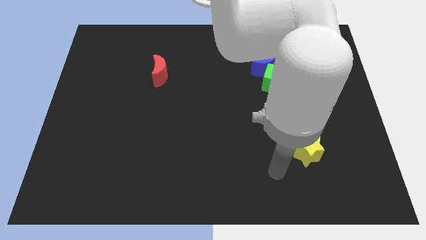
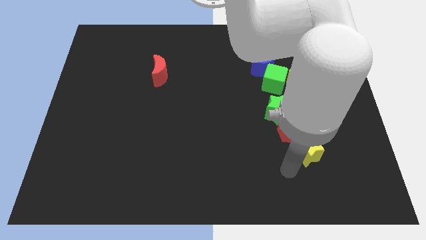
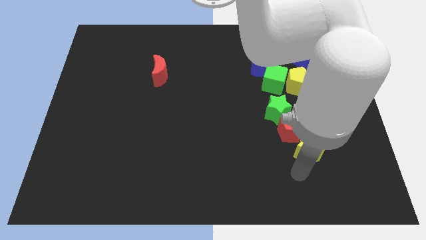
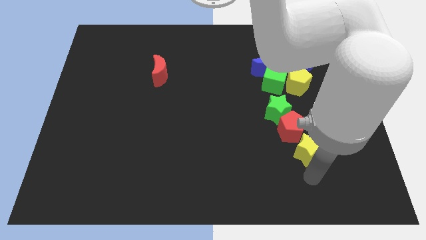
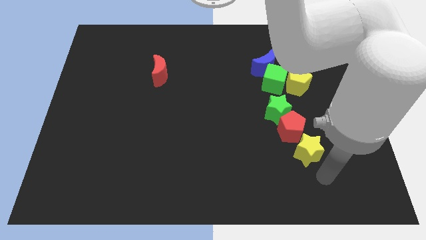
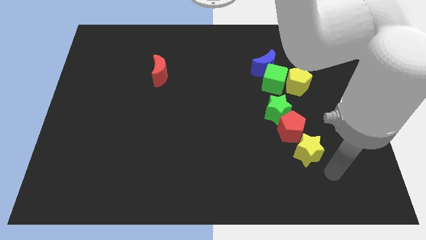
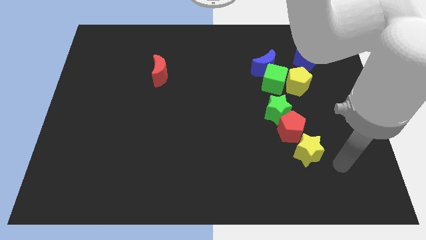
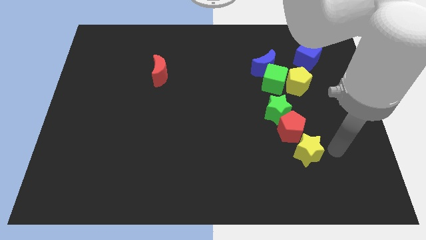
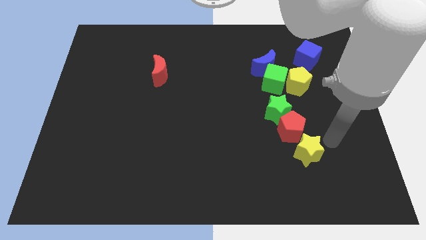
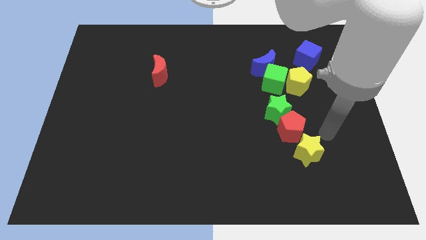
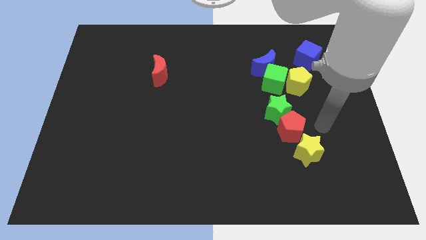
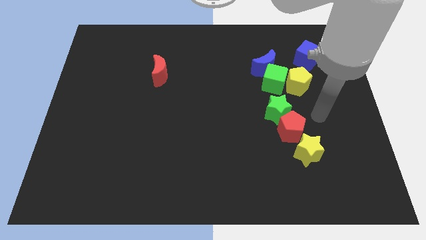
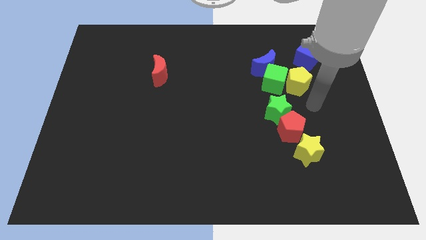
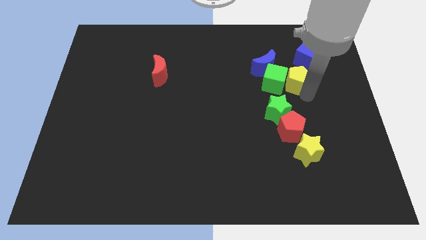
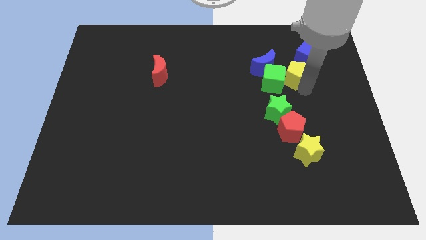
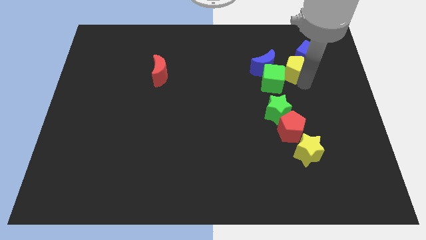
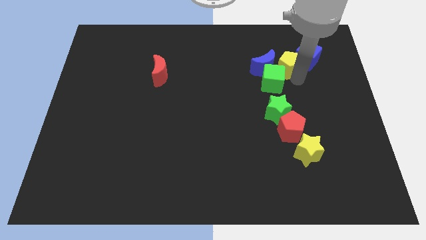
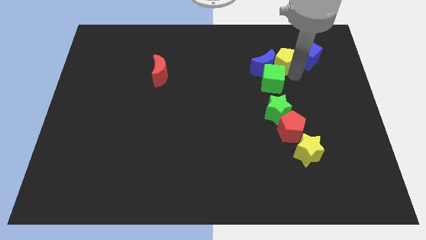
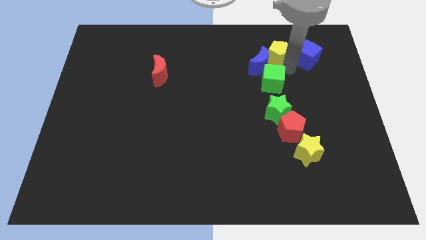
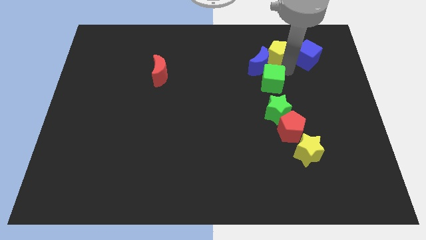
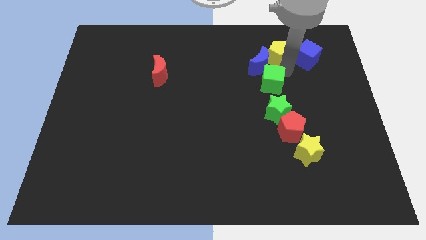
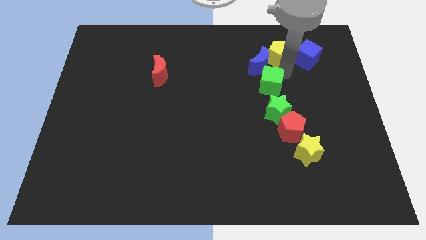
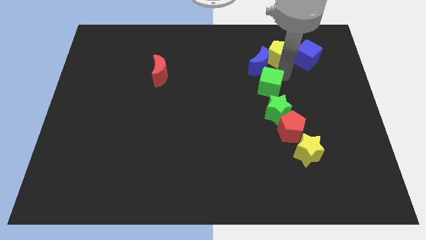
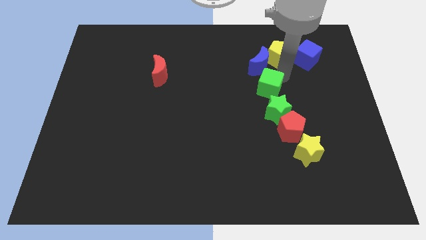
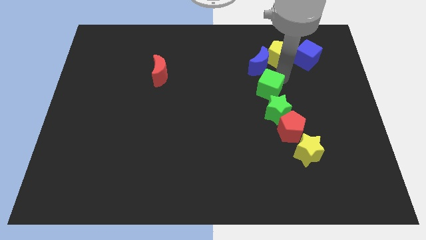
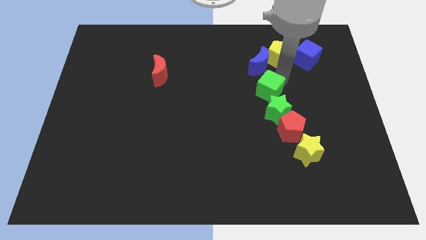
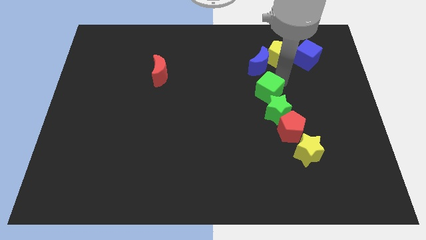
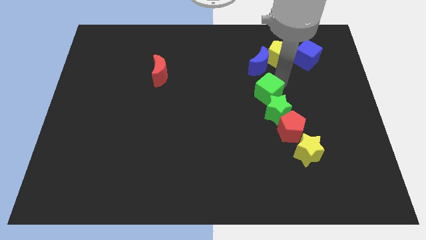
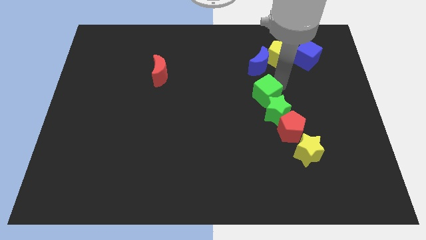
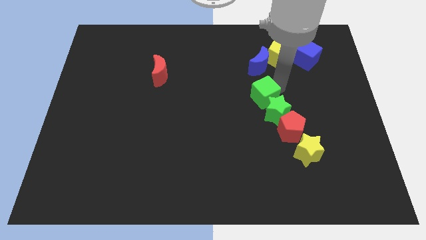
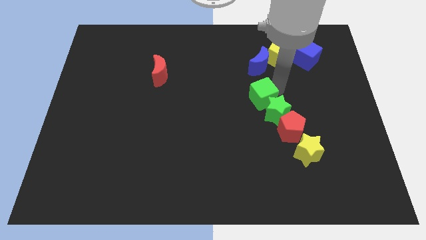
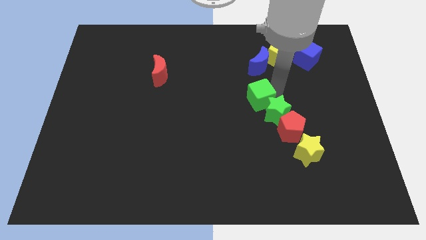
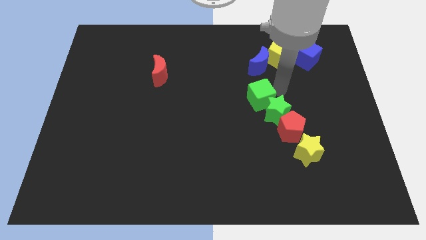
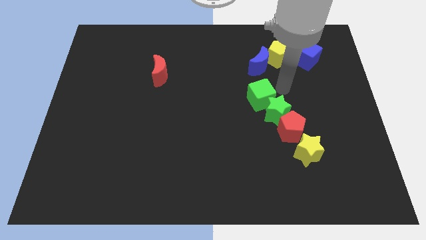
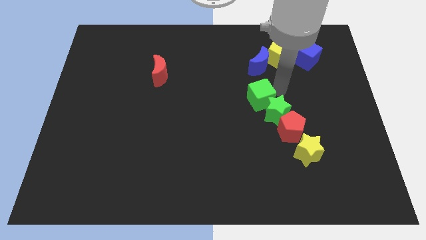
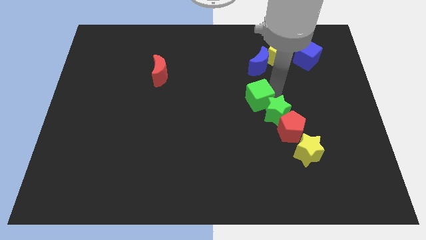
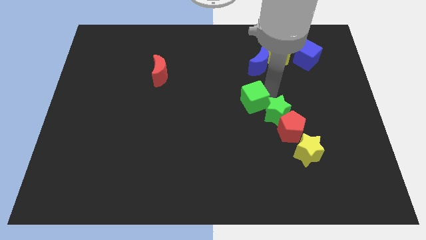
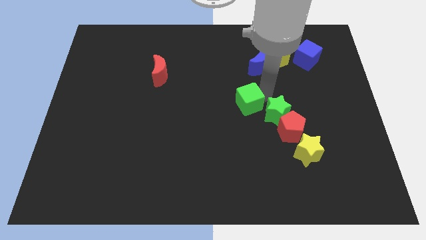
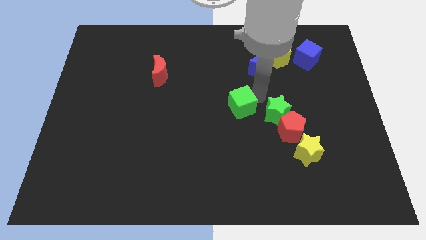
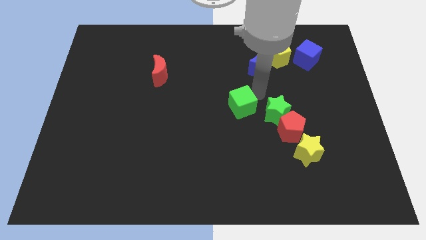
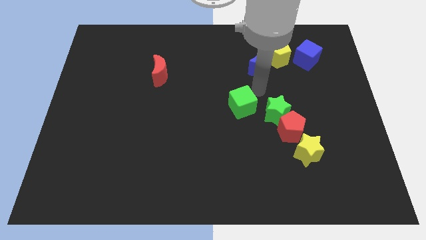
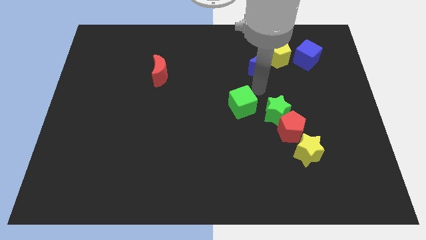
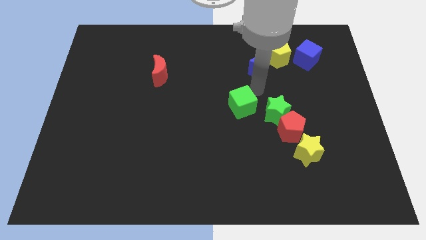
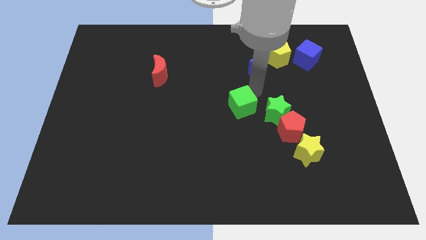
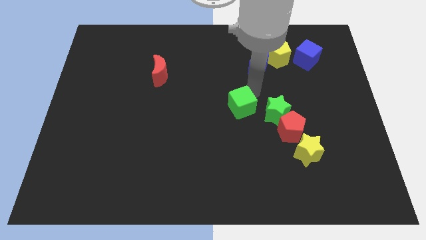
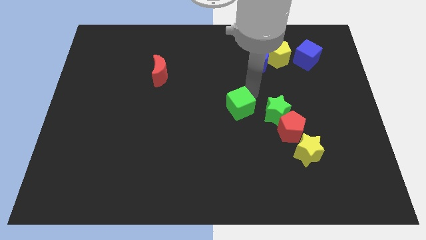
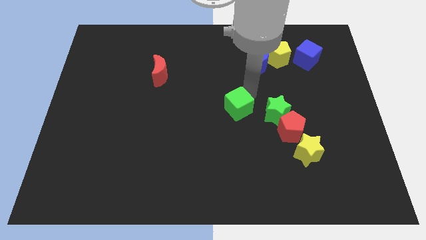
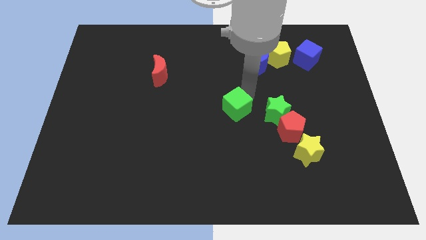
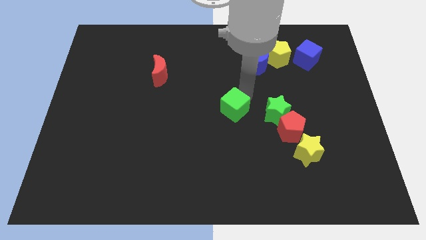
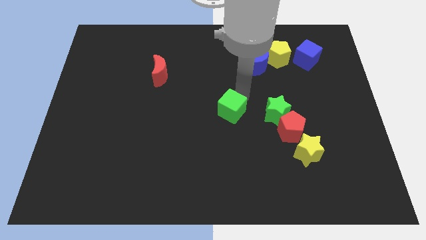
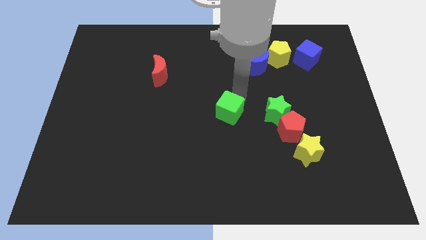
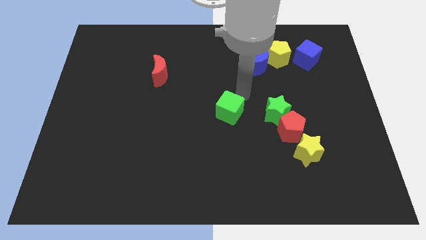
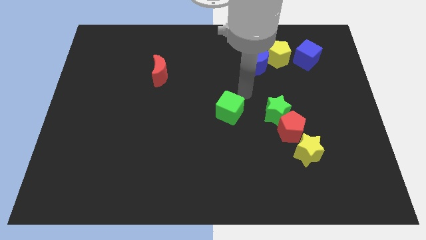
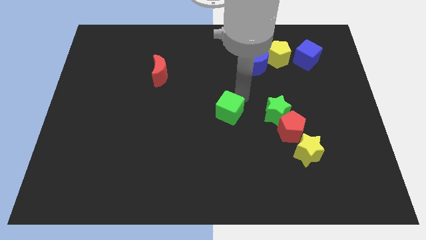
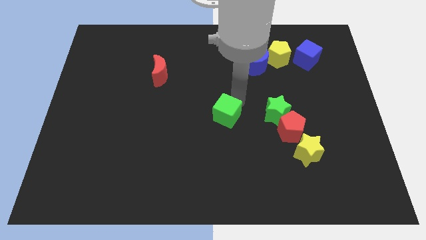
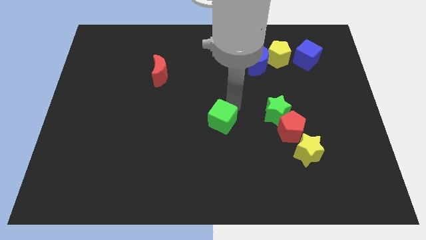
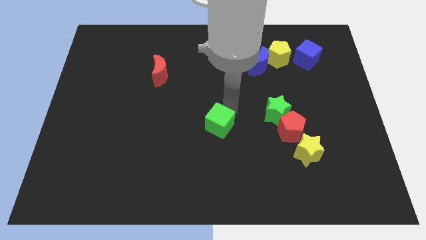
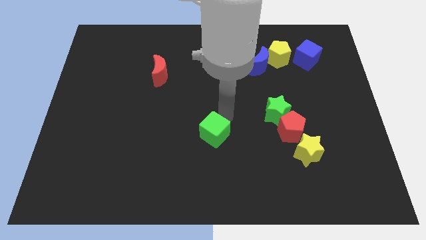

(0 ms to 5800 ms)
slide the green cube down and to the left diagonally

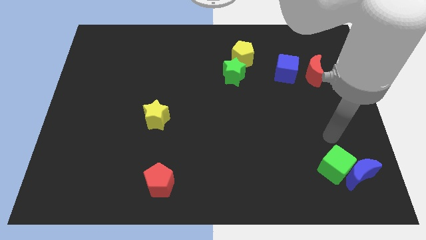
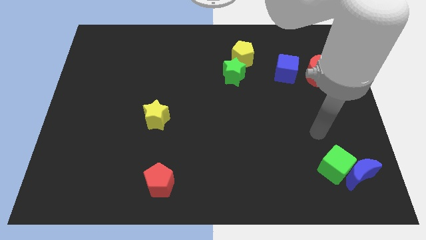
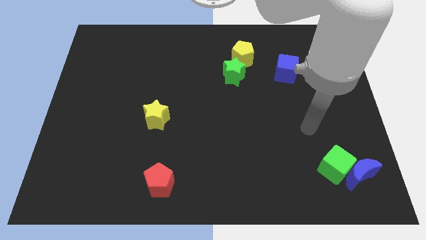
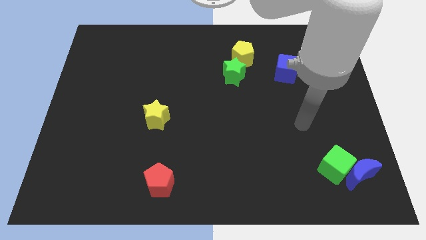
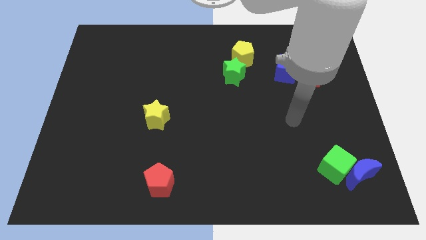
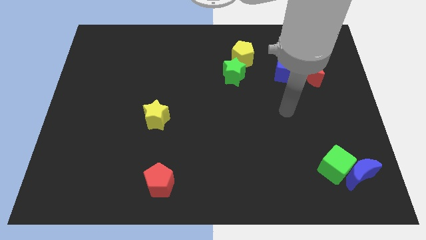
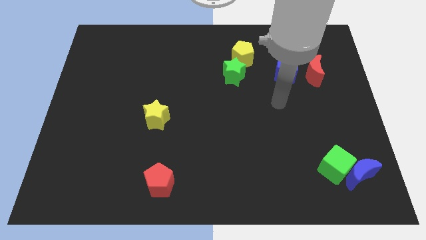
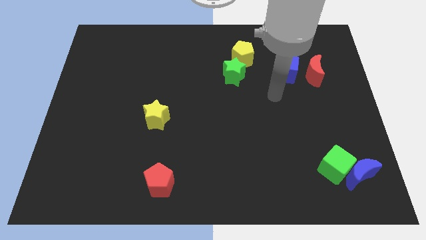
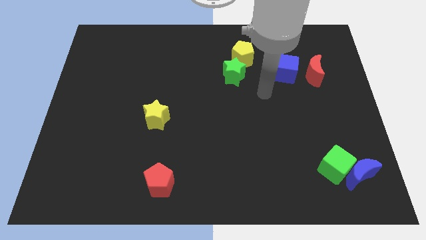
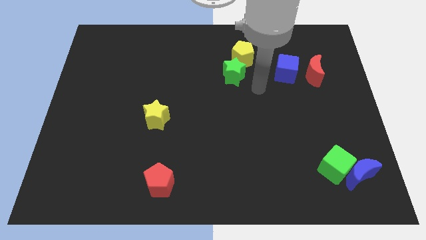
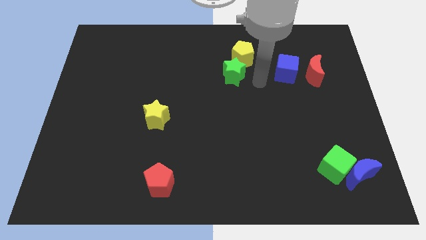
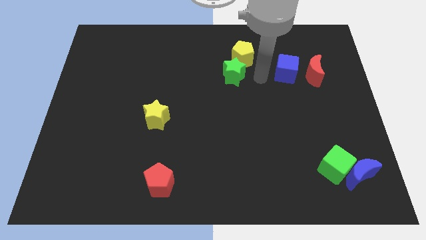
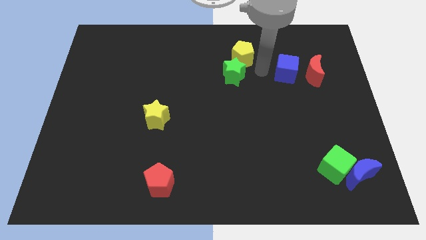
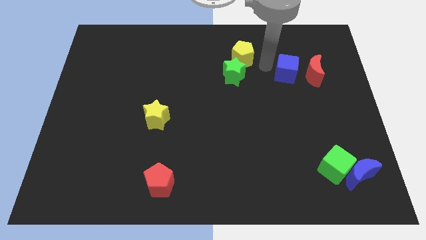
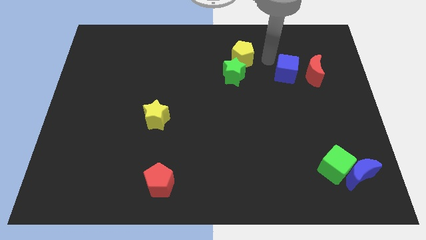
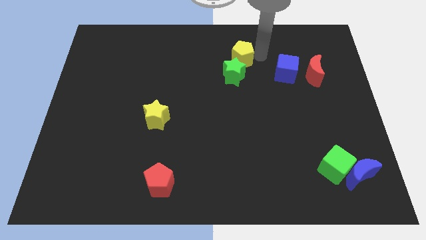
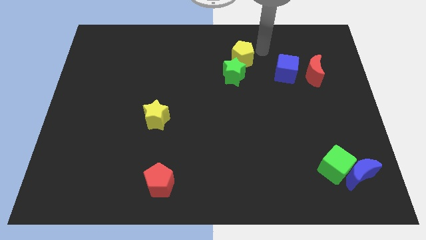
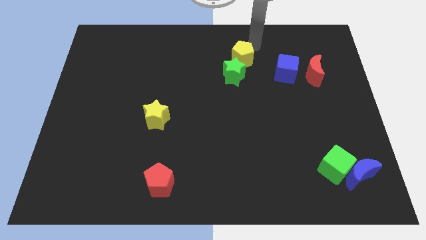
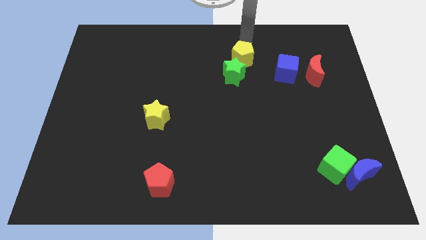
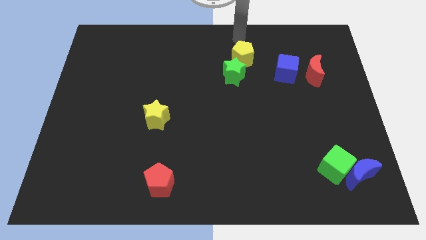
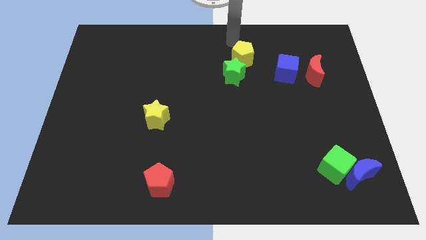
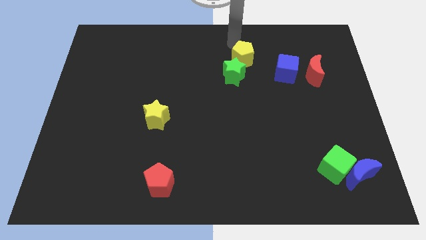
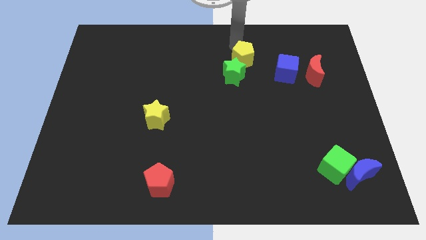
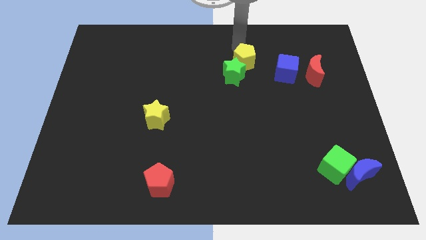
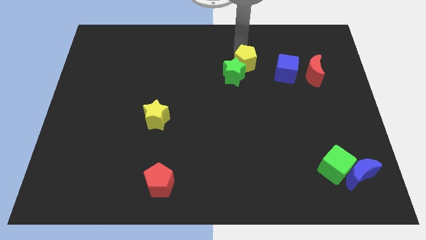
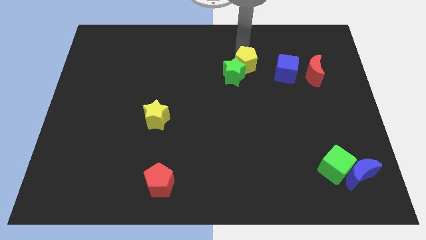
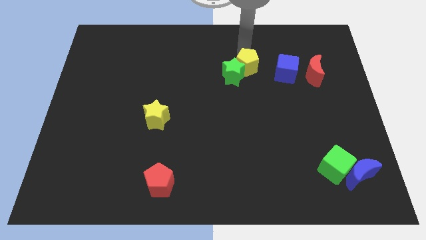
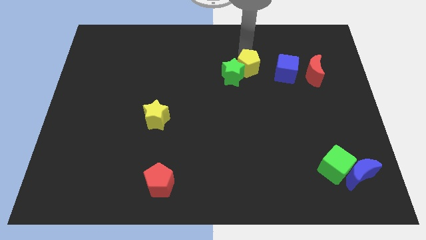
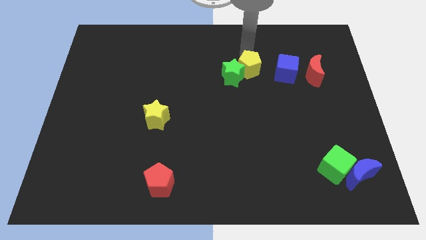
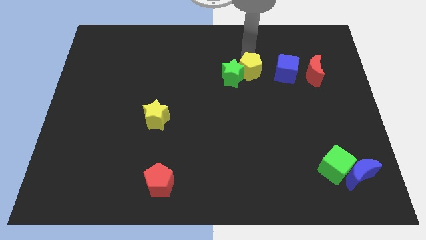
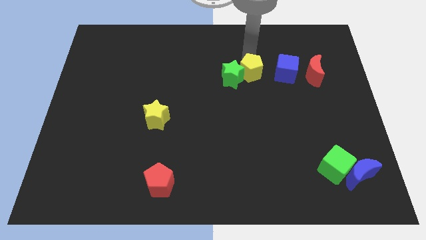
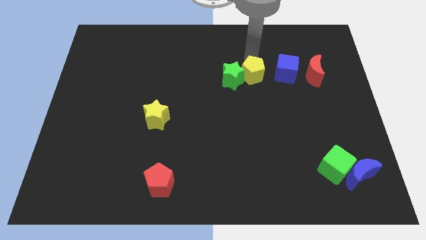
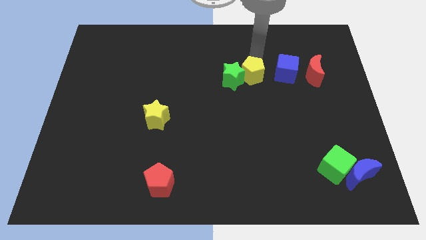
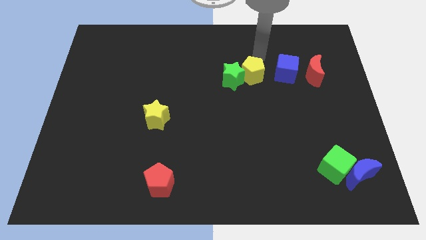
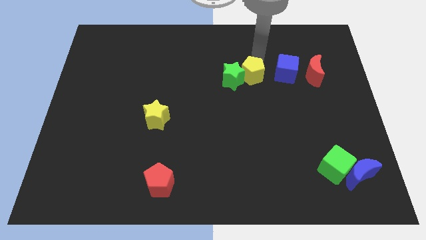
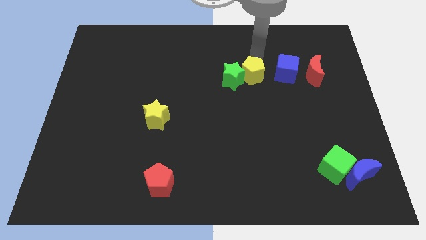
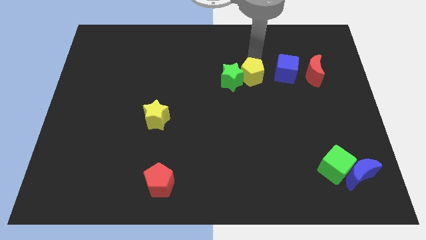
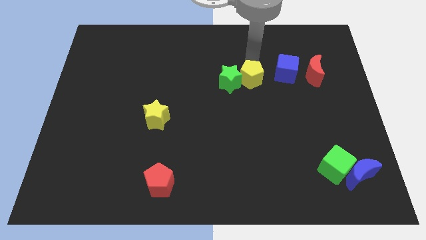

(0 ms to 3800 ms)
push the yellow pentagon a little bit down
